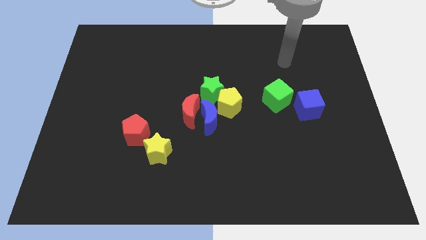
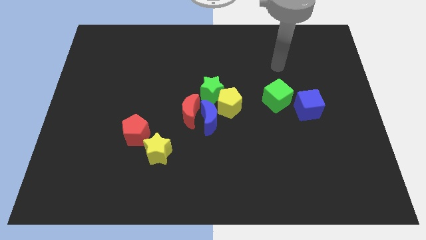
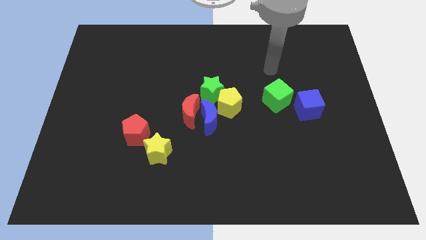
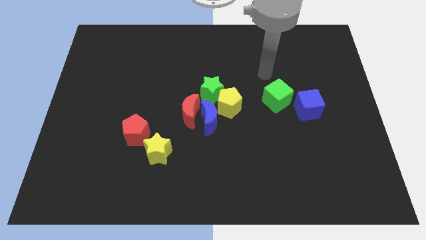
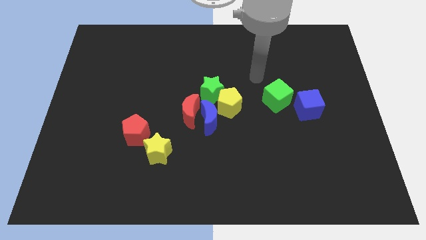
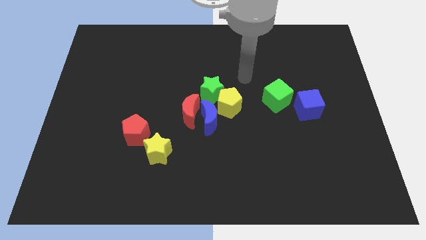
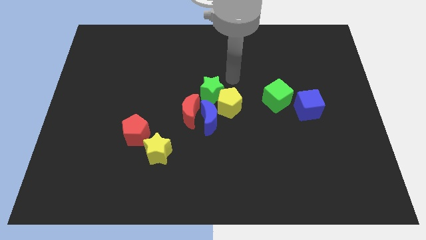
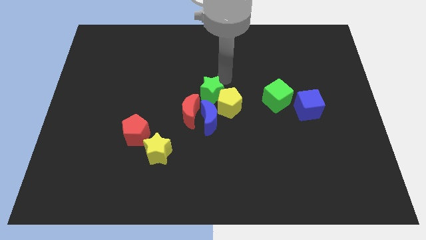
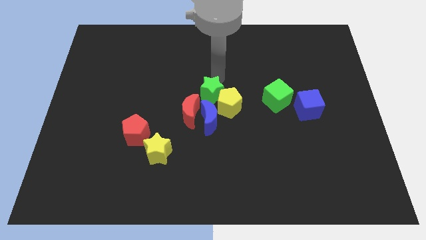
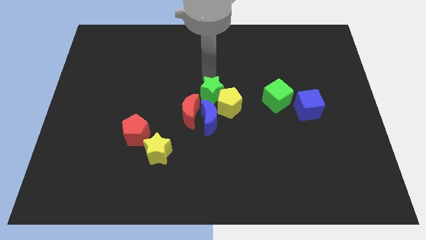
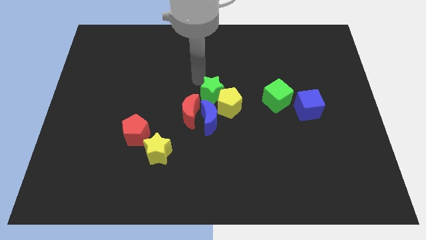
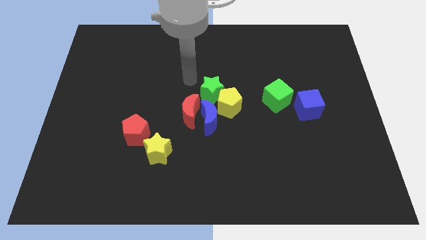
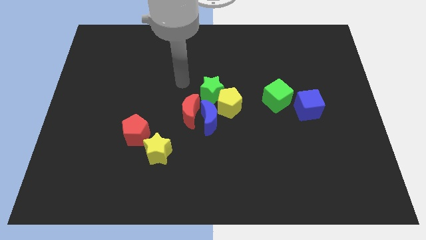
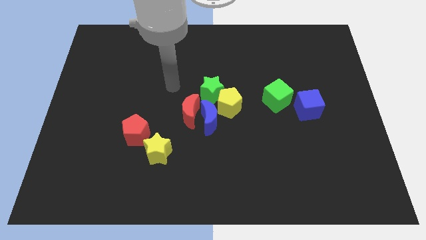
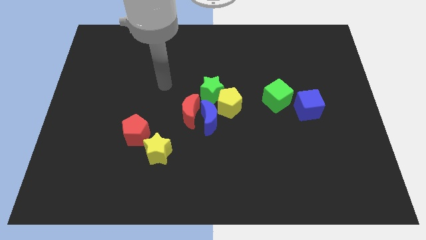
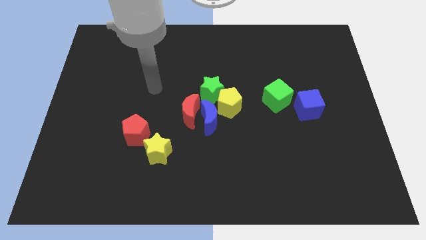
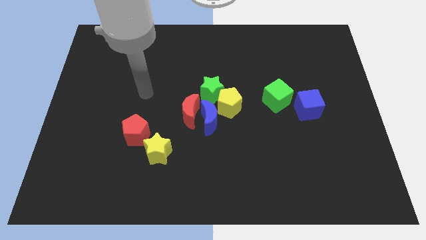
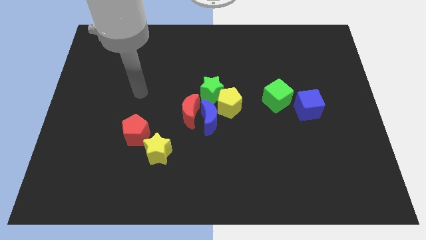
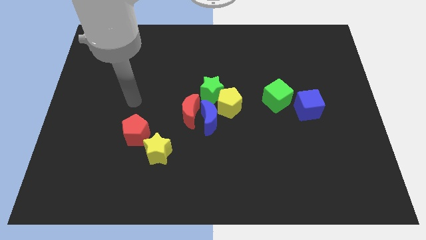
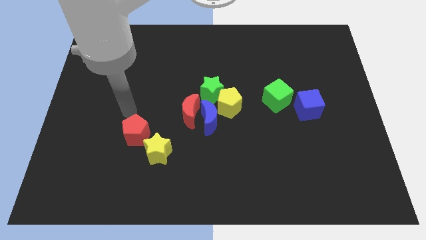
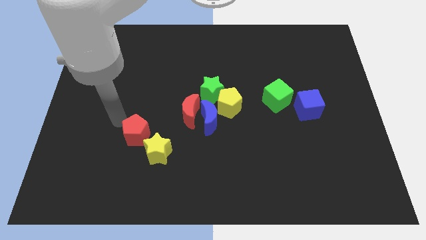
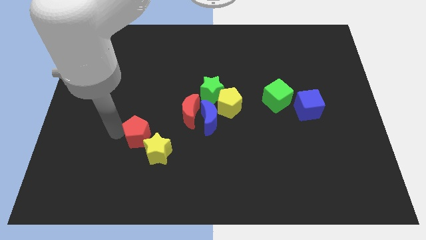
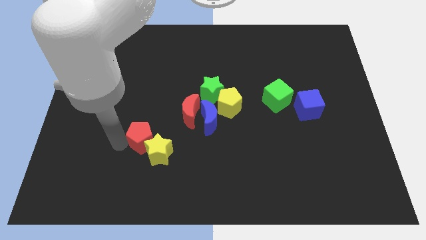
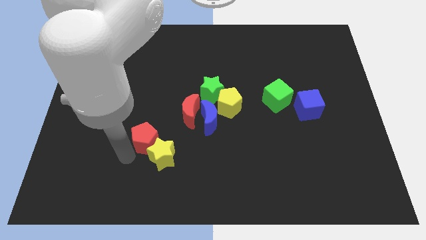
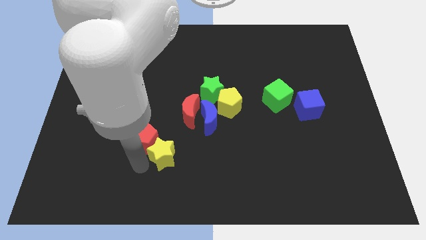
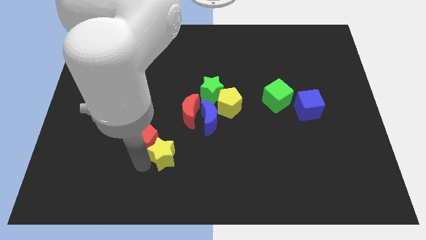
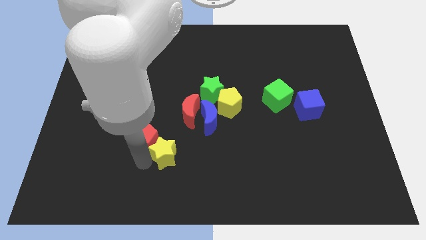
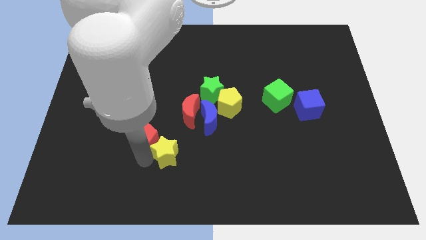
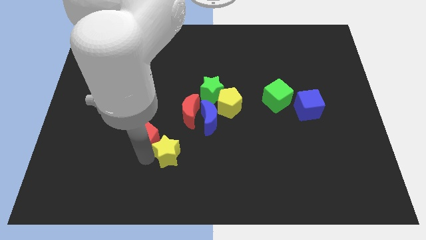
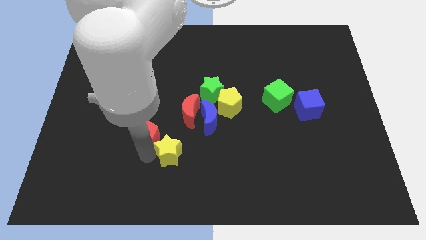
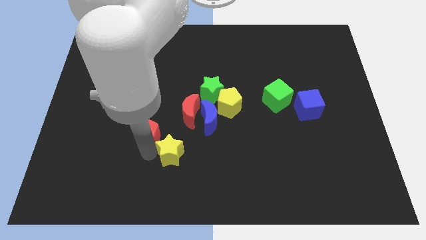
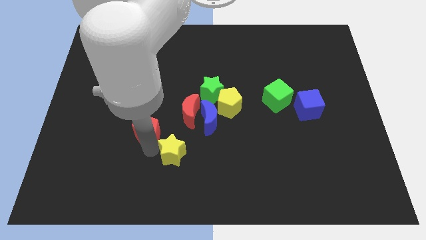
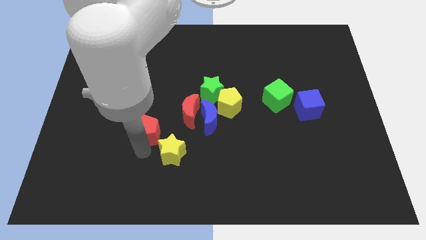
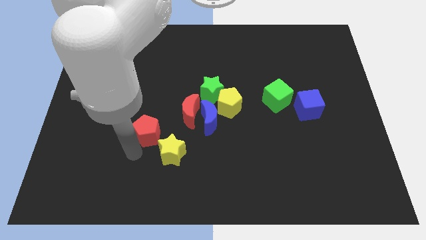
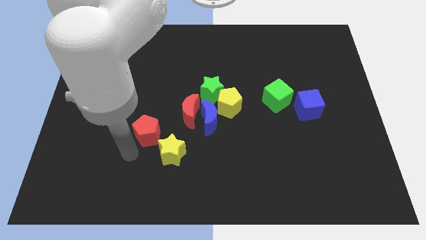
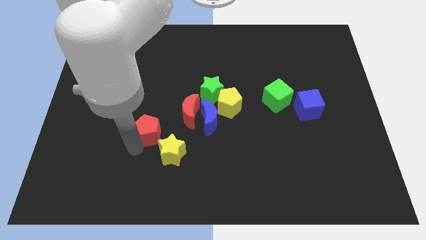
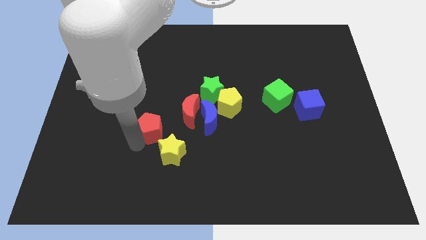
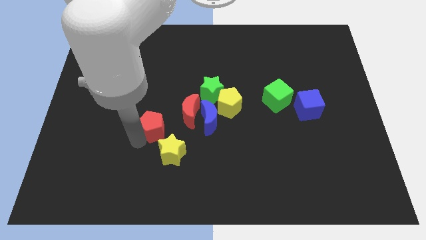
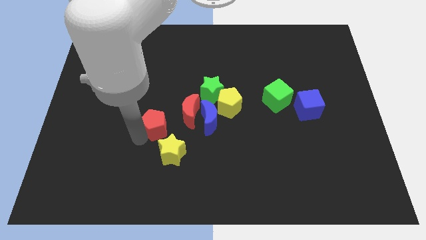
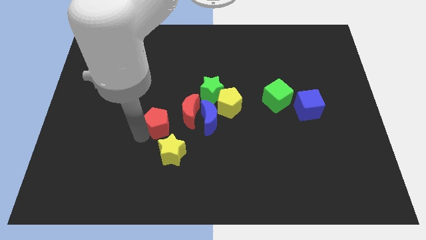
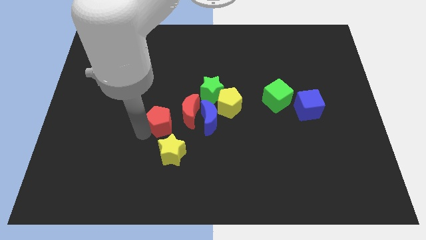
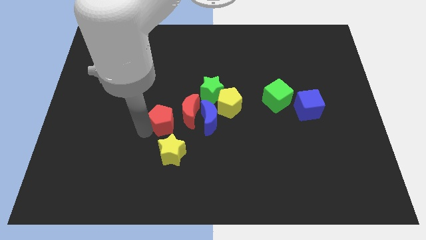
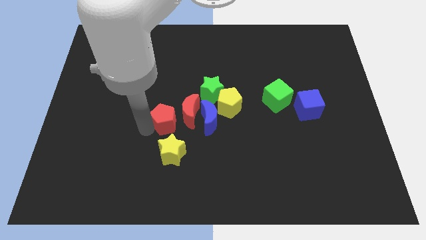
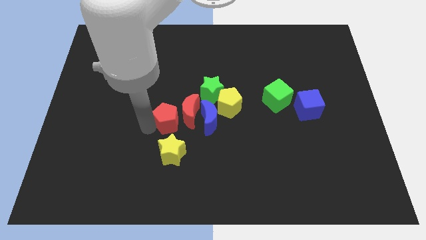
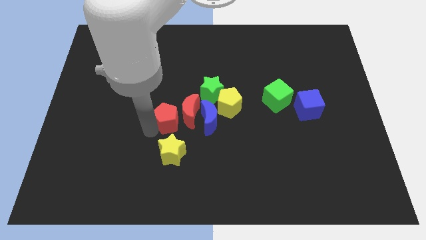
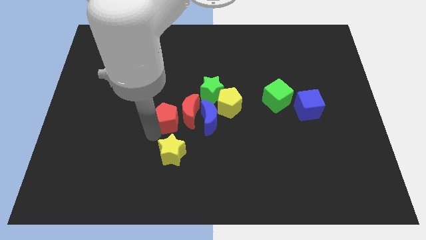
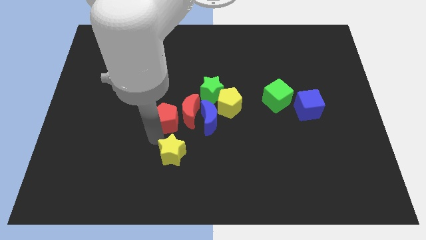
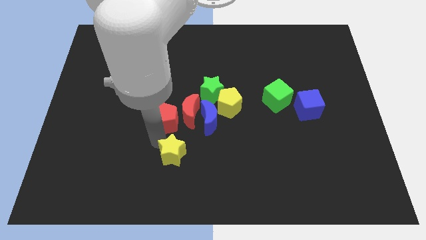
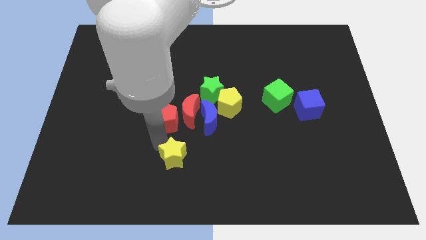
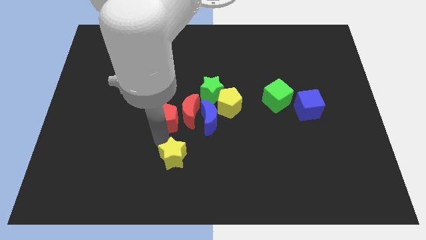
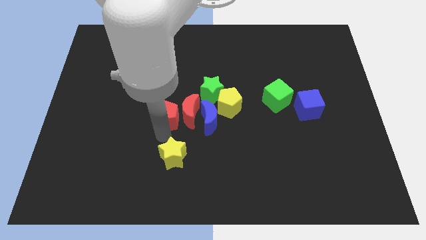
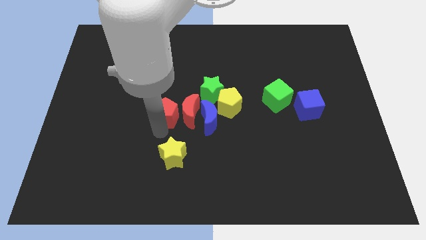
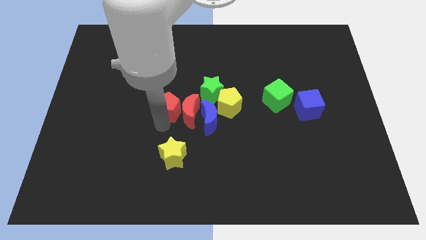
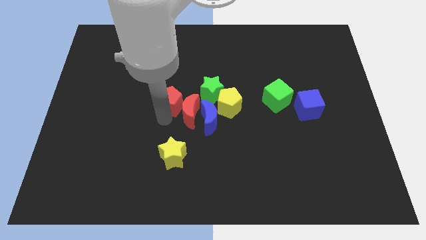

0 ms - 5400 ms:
slide the red pentagon to the top side of the red moon

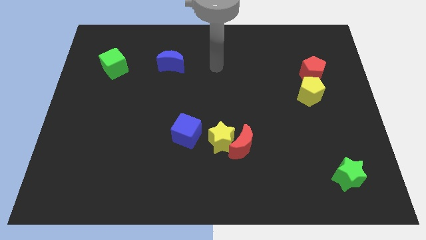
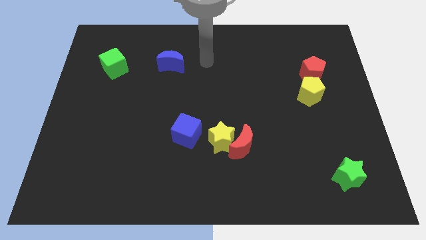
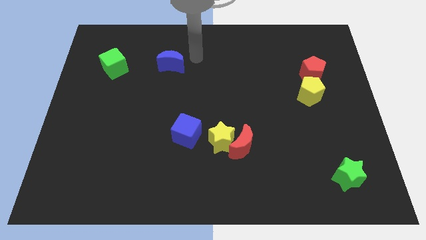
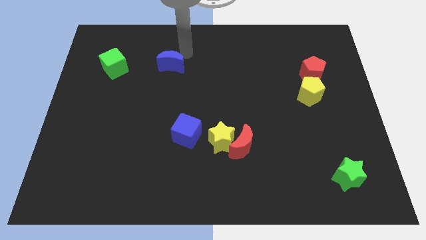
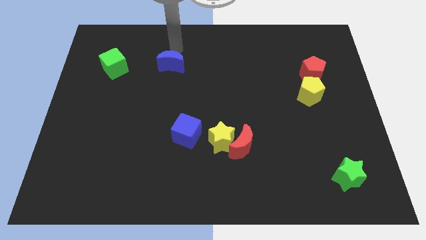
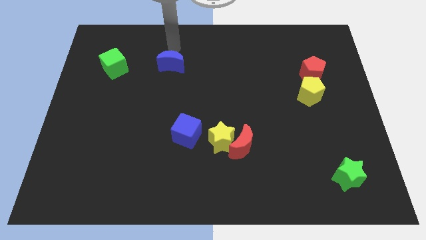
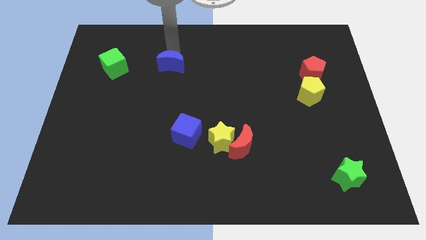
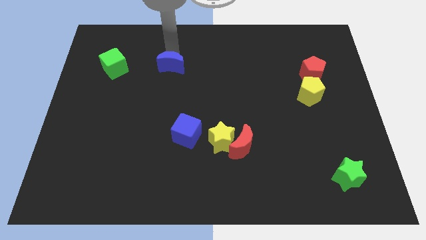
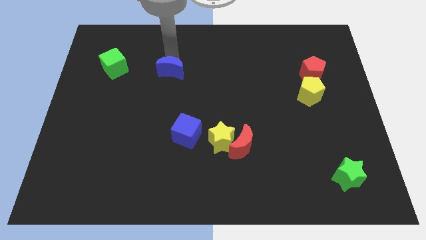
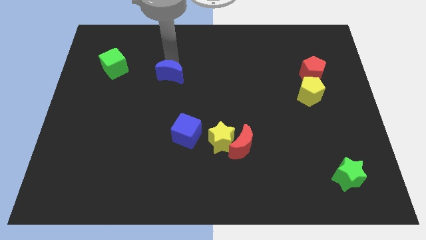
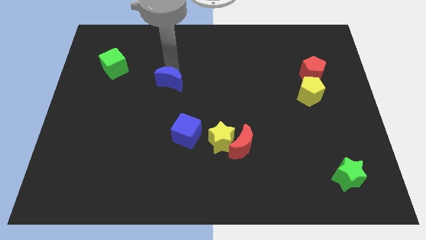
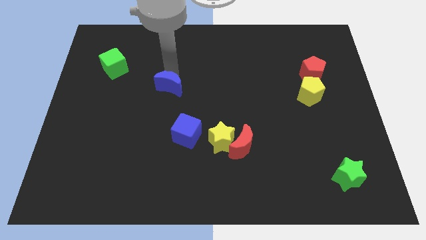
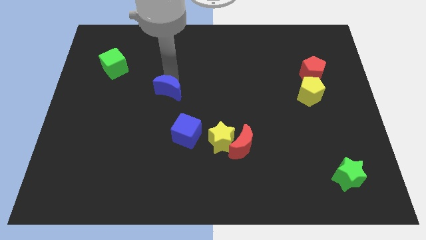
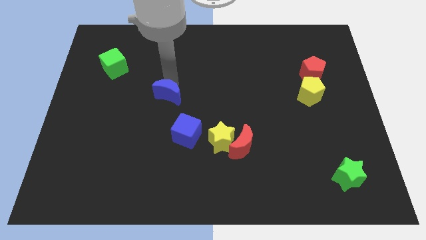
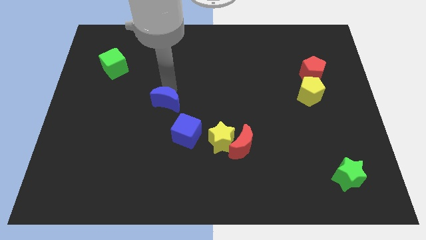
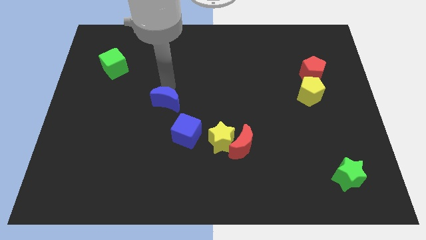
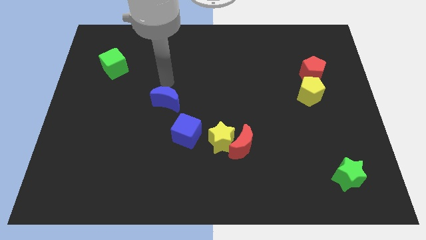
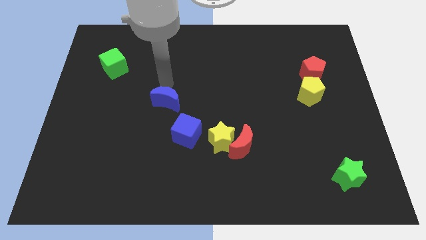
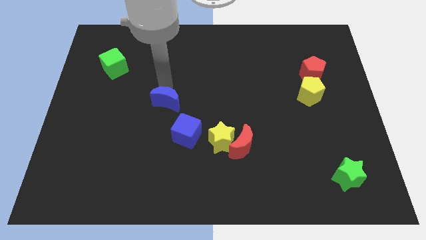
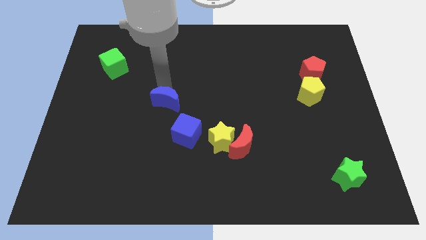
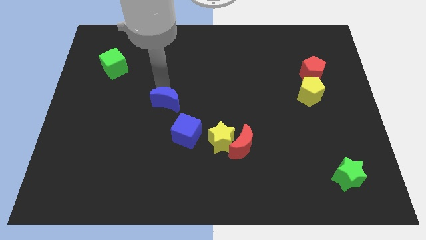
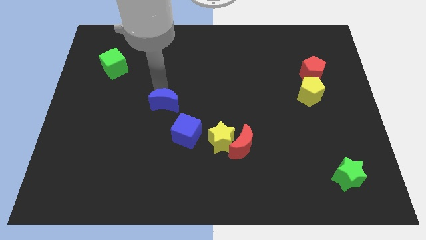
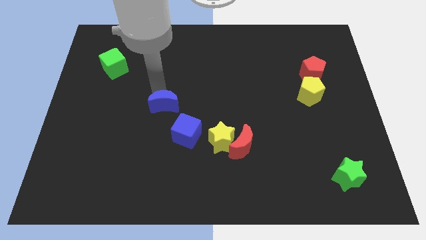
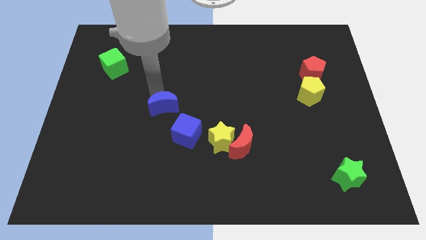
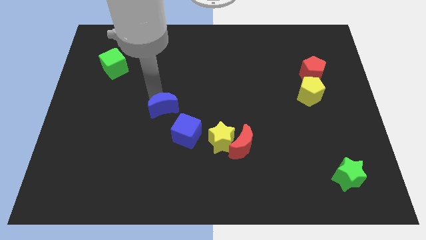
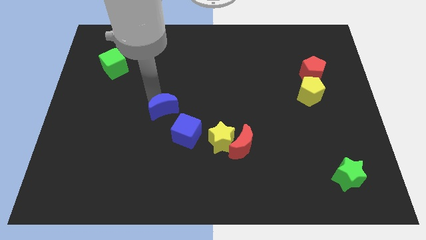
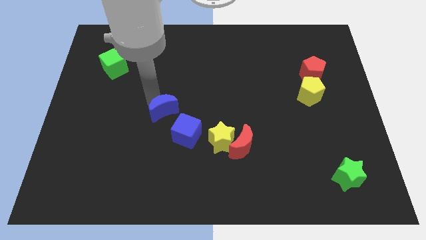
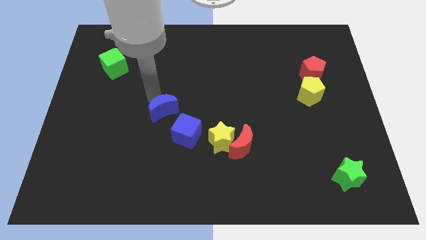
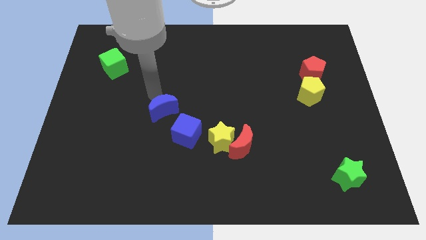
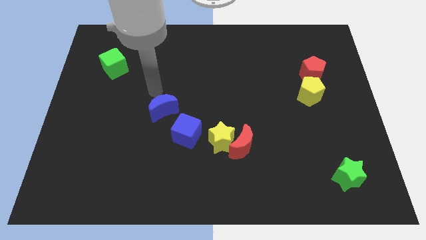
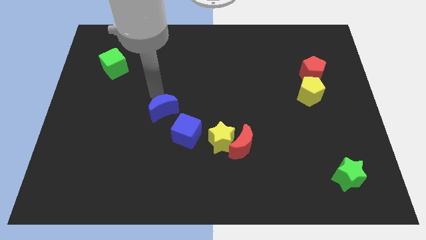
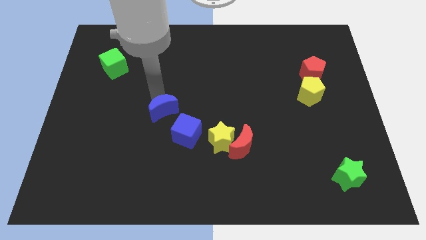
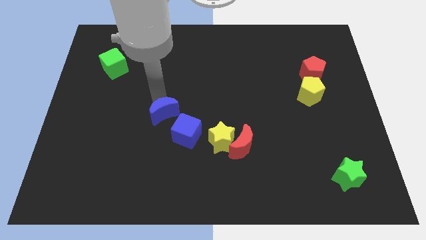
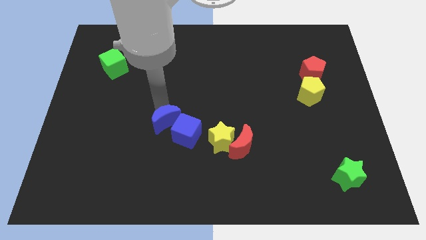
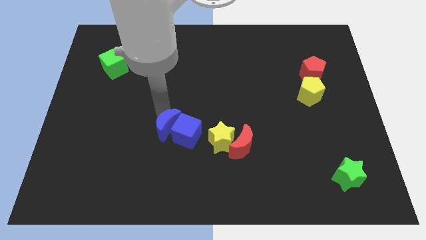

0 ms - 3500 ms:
put the blue moon to the left side of the yellow star
